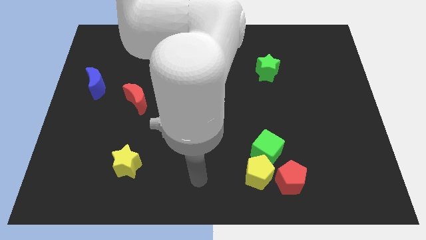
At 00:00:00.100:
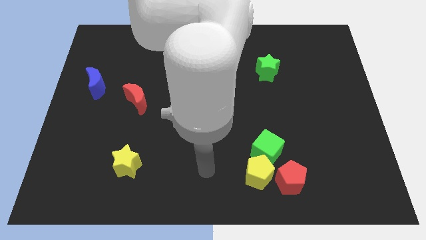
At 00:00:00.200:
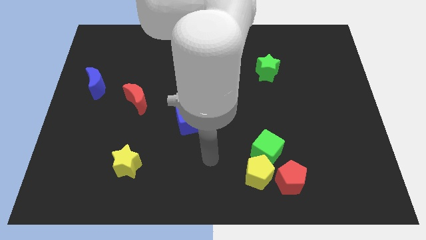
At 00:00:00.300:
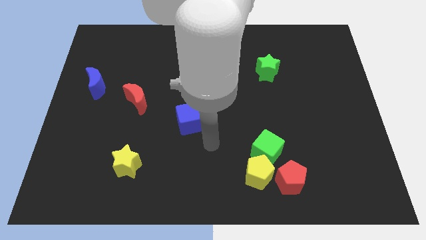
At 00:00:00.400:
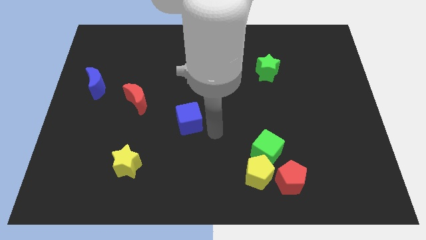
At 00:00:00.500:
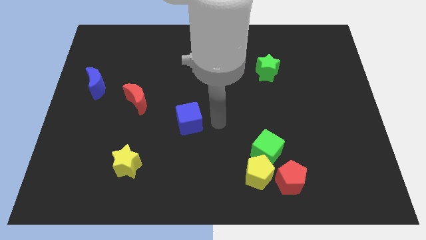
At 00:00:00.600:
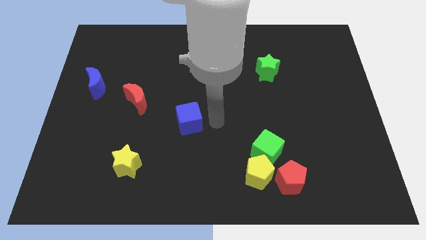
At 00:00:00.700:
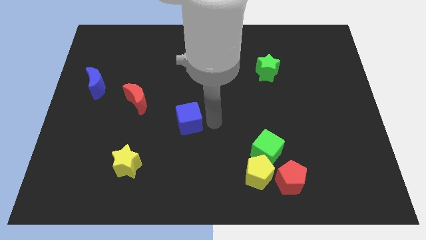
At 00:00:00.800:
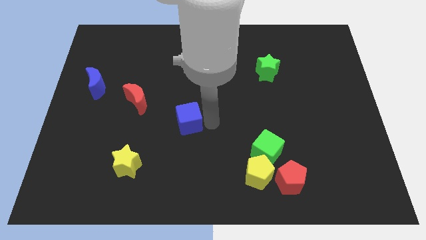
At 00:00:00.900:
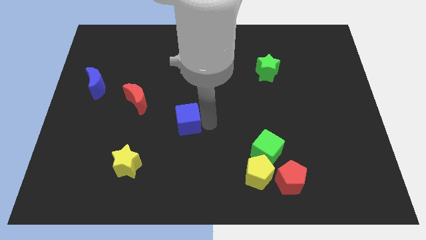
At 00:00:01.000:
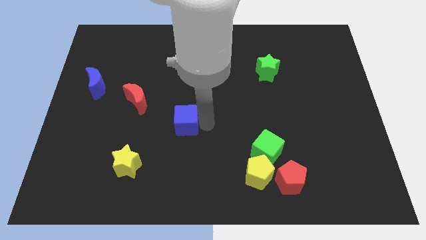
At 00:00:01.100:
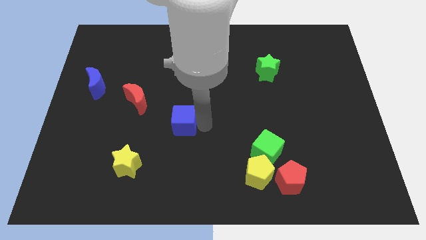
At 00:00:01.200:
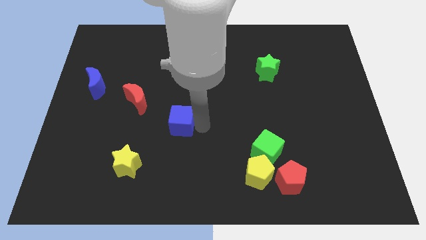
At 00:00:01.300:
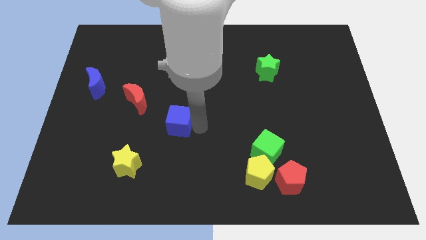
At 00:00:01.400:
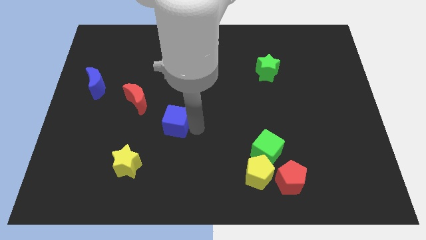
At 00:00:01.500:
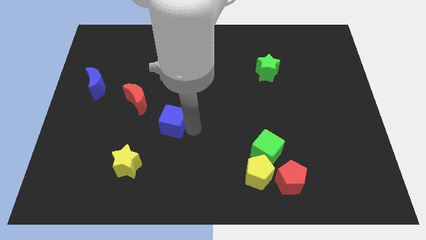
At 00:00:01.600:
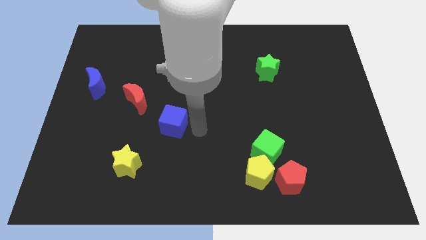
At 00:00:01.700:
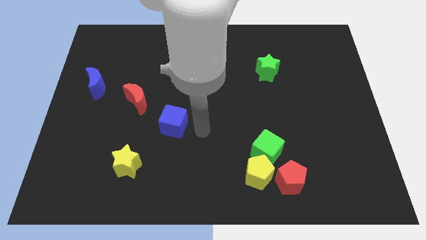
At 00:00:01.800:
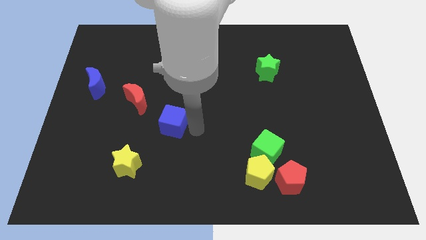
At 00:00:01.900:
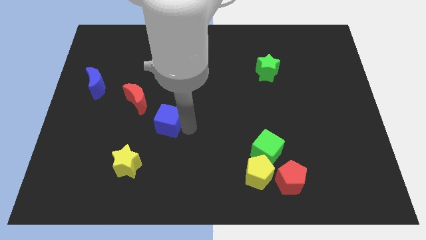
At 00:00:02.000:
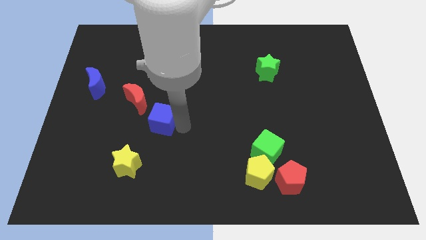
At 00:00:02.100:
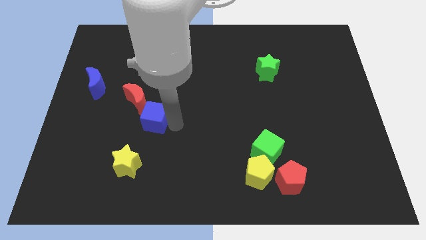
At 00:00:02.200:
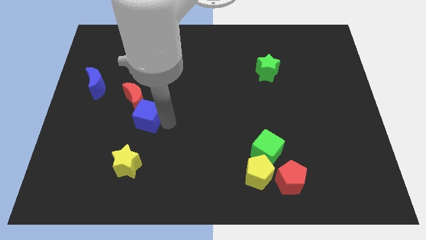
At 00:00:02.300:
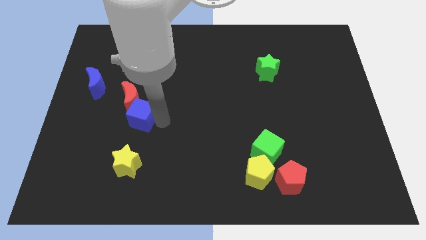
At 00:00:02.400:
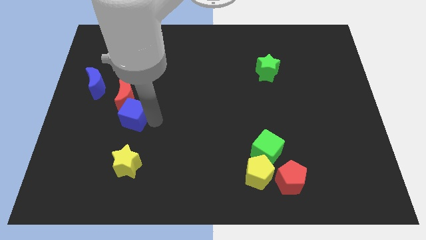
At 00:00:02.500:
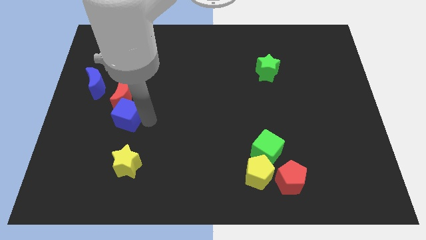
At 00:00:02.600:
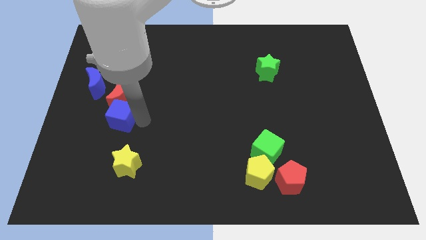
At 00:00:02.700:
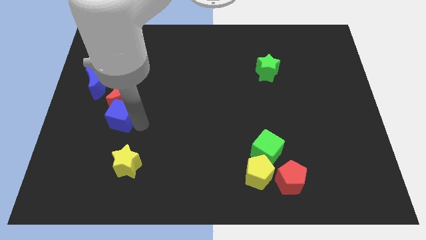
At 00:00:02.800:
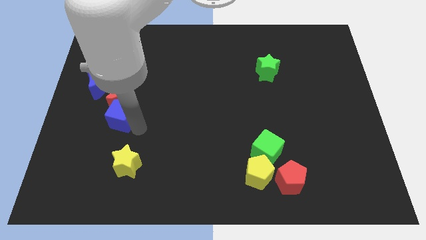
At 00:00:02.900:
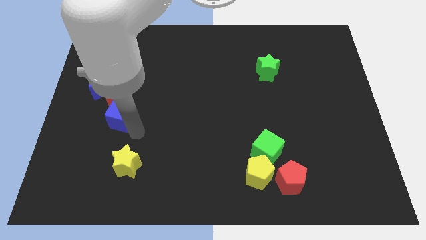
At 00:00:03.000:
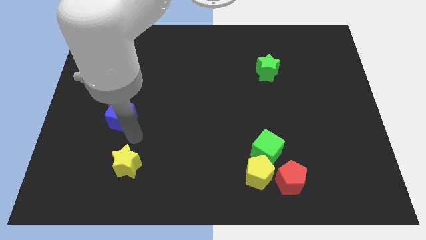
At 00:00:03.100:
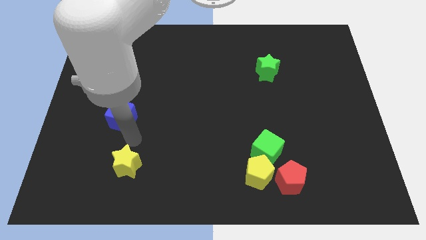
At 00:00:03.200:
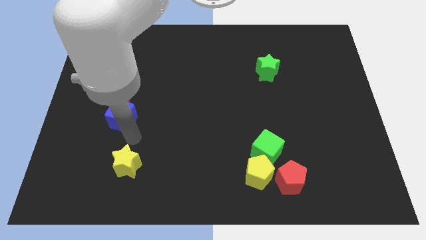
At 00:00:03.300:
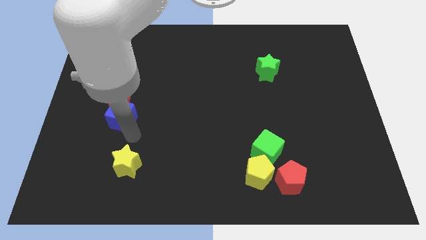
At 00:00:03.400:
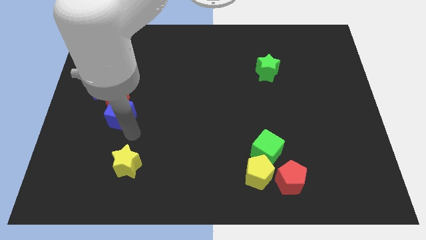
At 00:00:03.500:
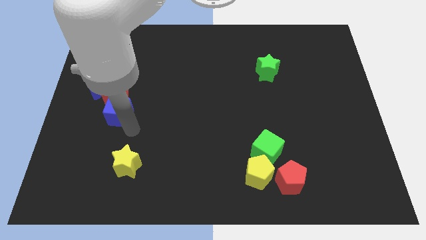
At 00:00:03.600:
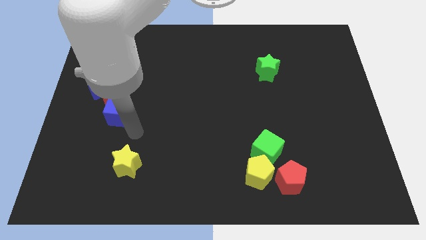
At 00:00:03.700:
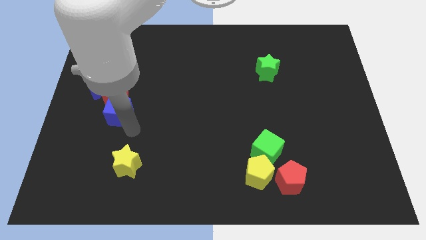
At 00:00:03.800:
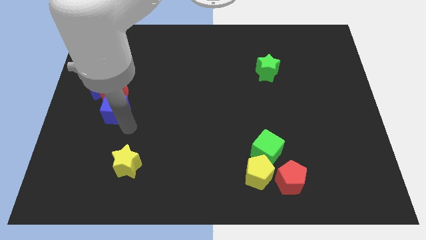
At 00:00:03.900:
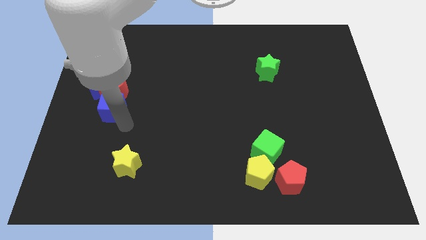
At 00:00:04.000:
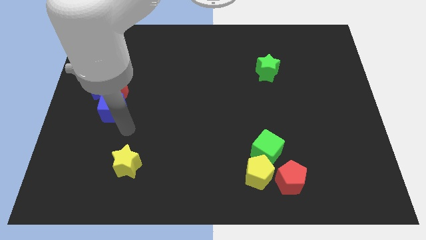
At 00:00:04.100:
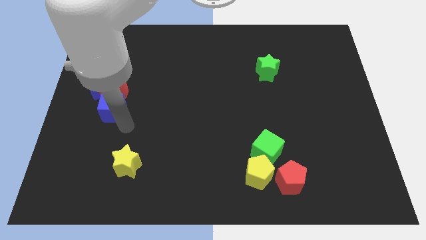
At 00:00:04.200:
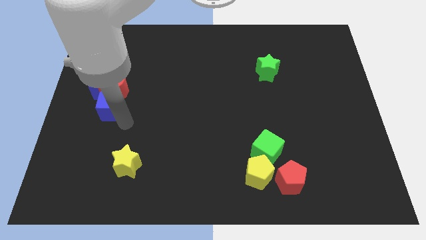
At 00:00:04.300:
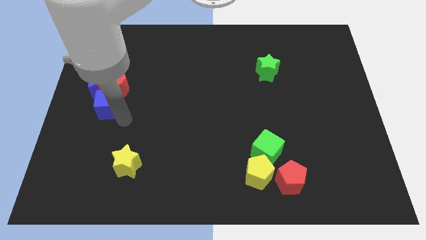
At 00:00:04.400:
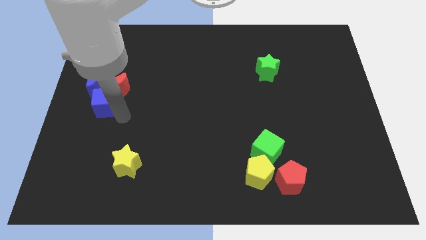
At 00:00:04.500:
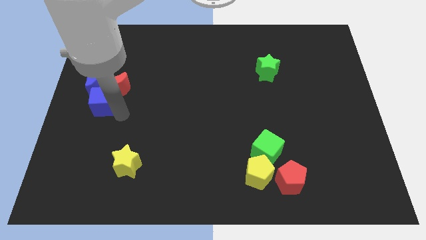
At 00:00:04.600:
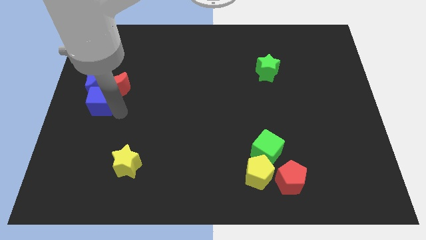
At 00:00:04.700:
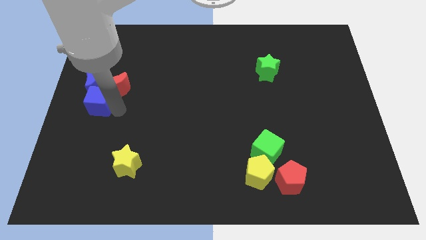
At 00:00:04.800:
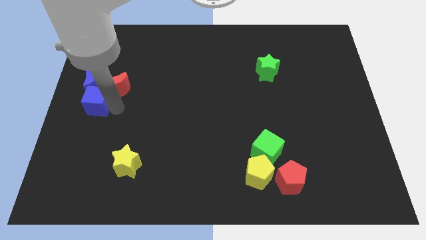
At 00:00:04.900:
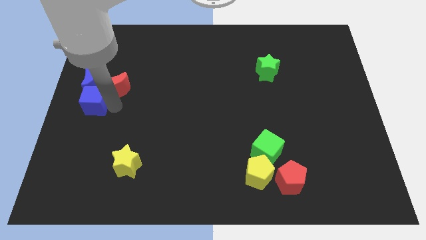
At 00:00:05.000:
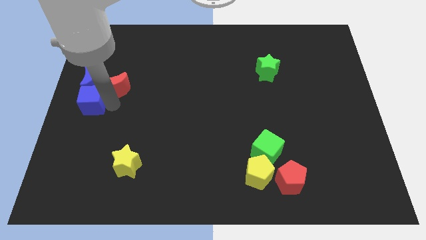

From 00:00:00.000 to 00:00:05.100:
slide the blue cube close to the blue moon

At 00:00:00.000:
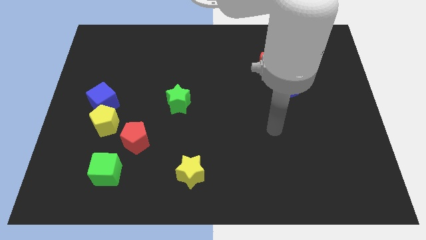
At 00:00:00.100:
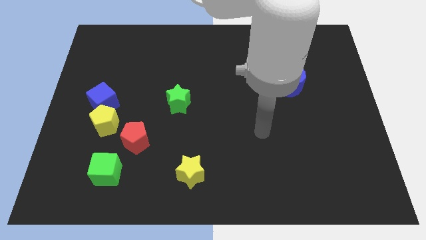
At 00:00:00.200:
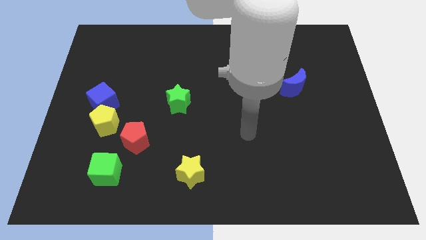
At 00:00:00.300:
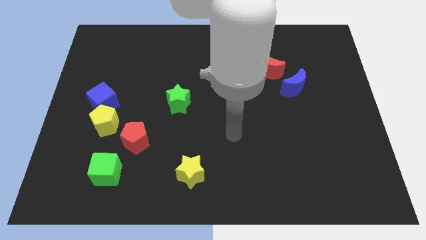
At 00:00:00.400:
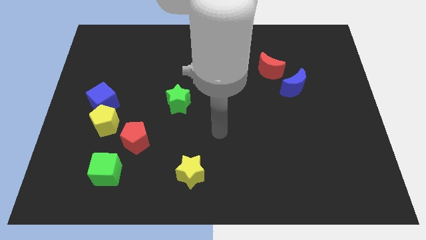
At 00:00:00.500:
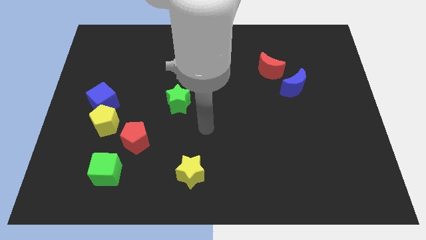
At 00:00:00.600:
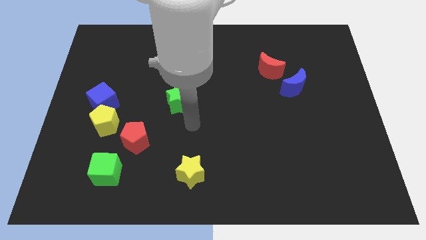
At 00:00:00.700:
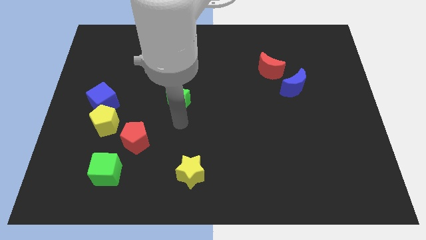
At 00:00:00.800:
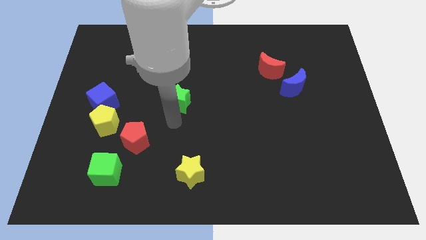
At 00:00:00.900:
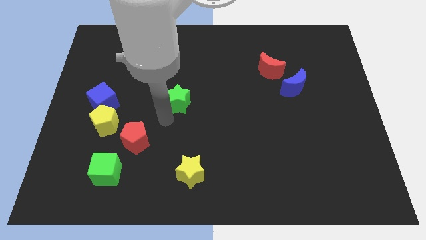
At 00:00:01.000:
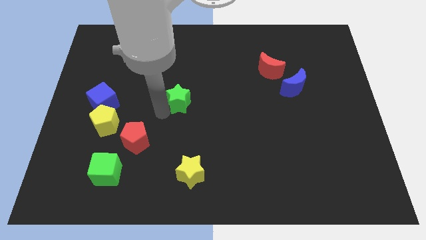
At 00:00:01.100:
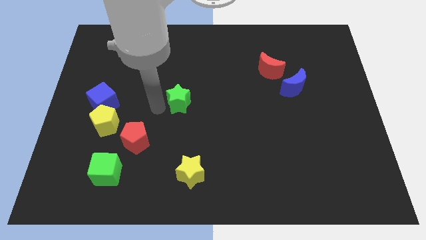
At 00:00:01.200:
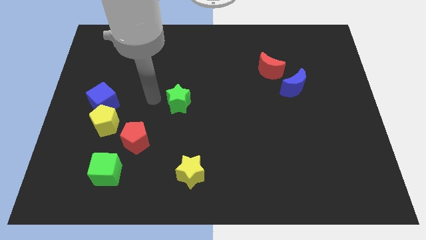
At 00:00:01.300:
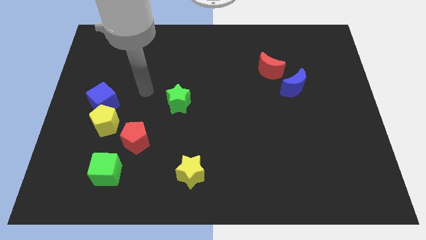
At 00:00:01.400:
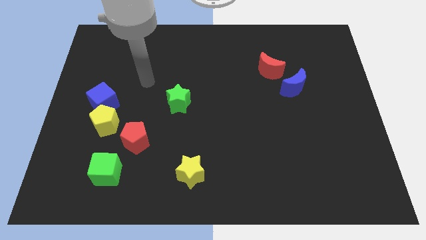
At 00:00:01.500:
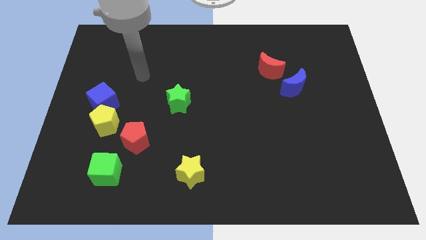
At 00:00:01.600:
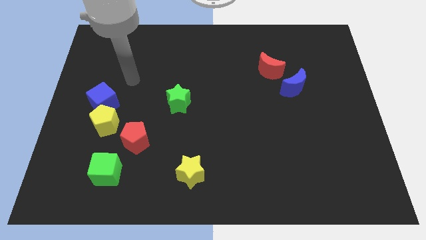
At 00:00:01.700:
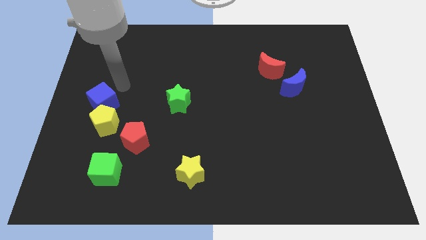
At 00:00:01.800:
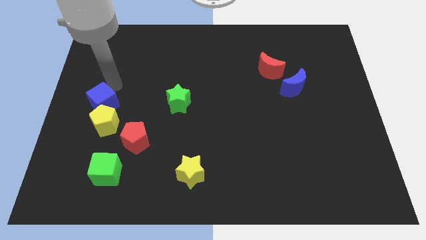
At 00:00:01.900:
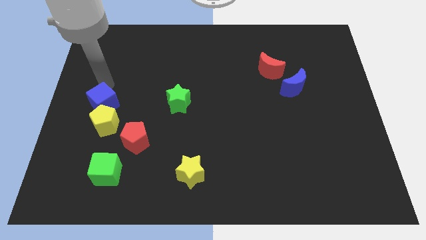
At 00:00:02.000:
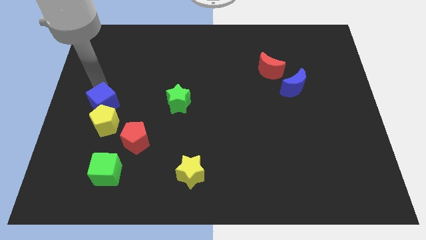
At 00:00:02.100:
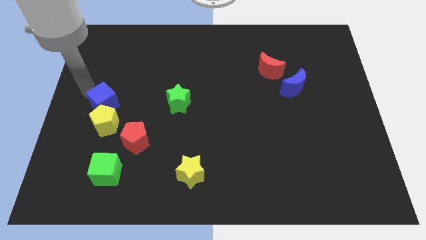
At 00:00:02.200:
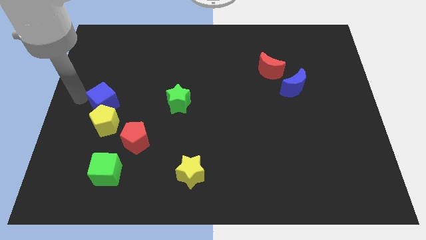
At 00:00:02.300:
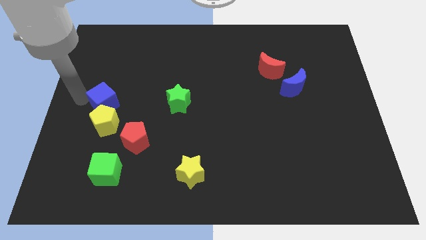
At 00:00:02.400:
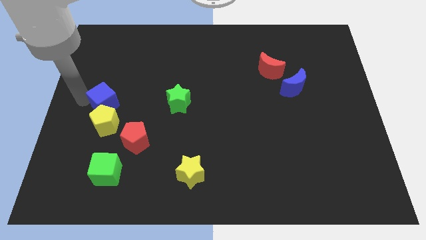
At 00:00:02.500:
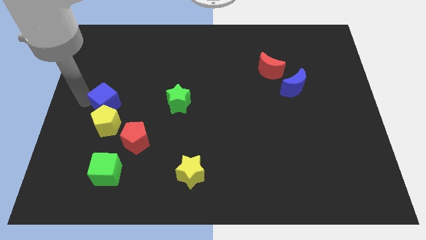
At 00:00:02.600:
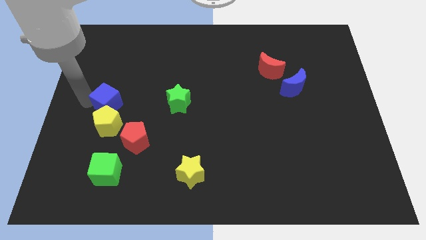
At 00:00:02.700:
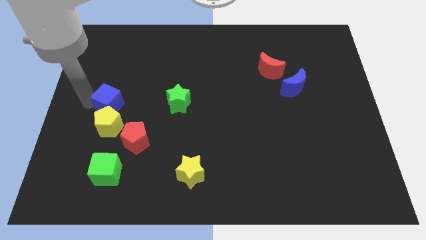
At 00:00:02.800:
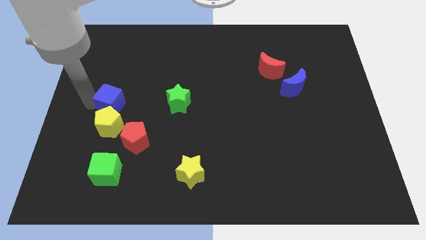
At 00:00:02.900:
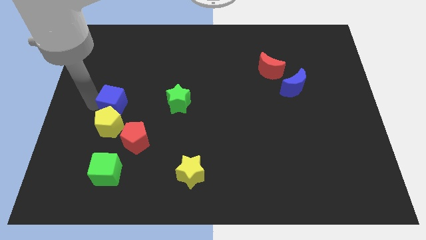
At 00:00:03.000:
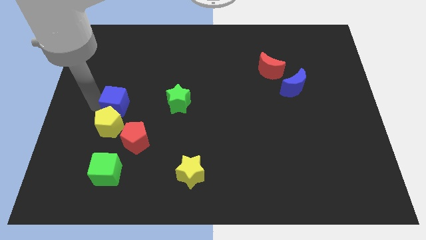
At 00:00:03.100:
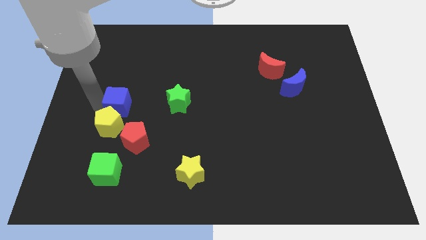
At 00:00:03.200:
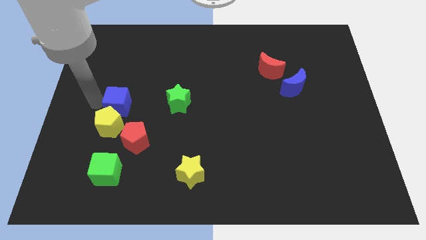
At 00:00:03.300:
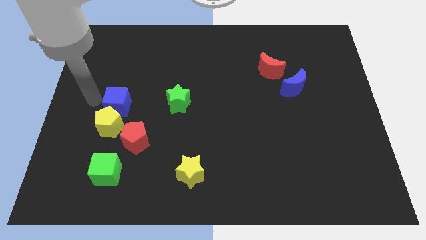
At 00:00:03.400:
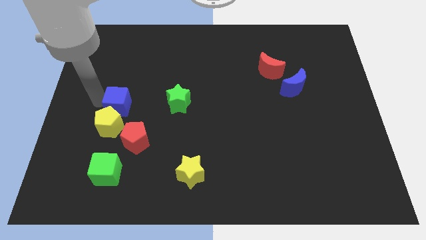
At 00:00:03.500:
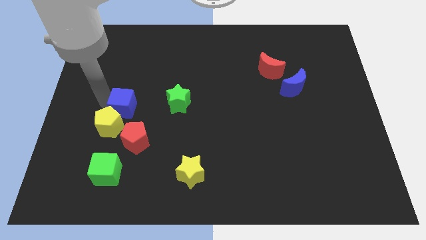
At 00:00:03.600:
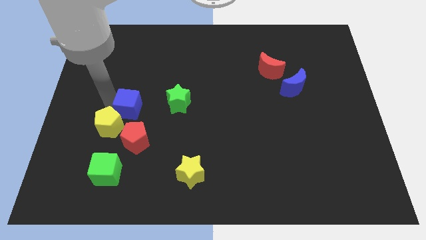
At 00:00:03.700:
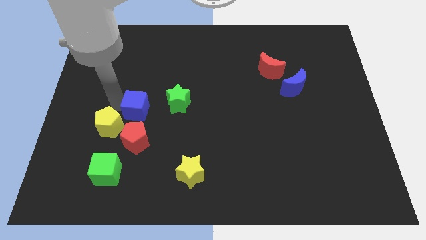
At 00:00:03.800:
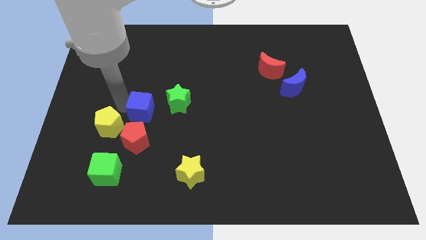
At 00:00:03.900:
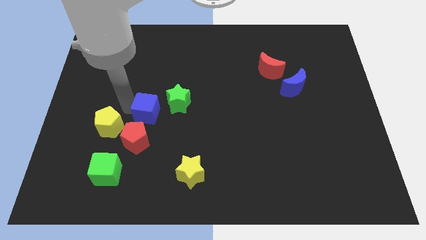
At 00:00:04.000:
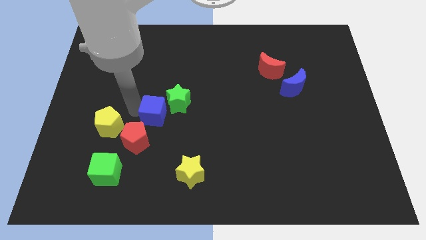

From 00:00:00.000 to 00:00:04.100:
slide the blue cube close to the green star
